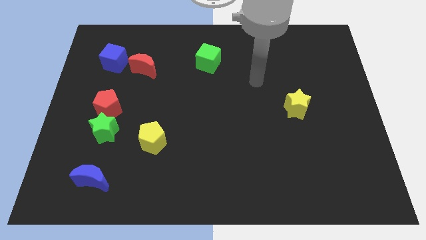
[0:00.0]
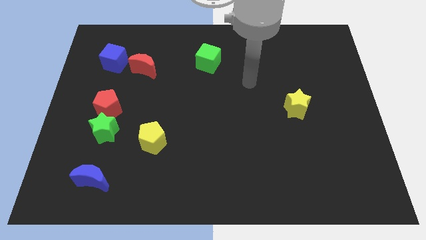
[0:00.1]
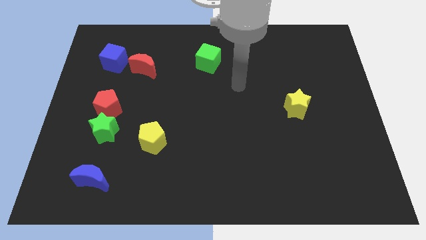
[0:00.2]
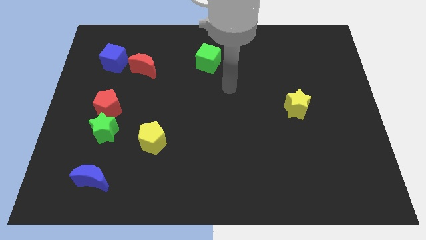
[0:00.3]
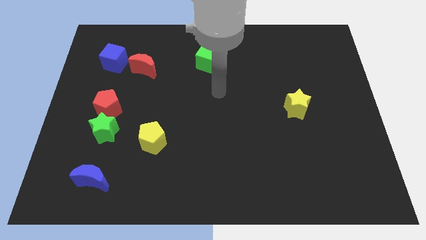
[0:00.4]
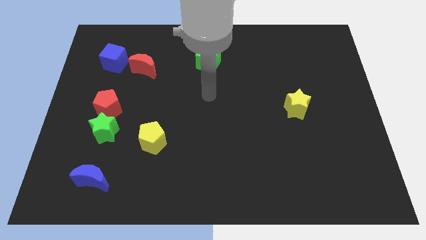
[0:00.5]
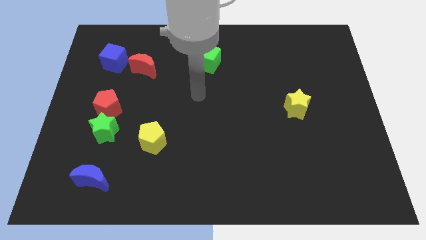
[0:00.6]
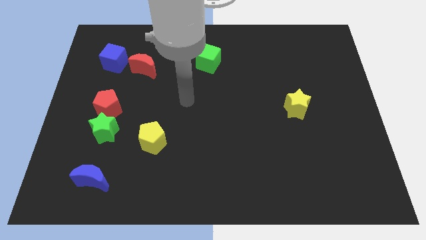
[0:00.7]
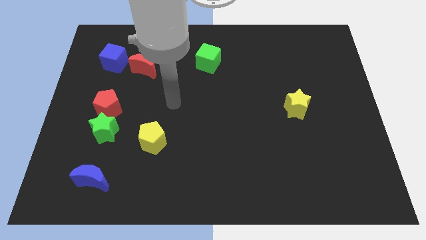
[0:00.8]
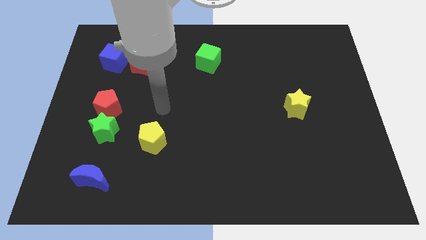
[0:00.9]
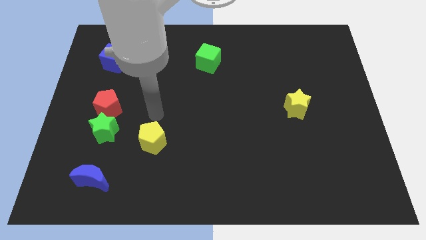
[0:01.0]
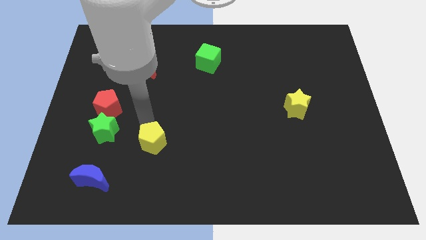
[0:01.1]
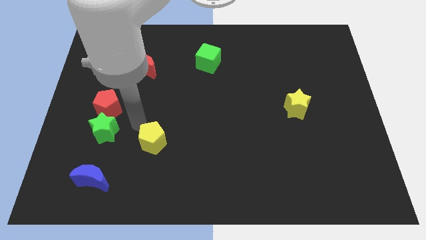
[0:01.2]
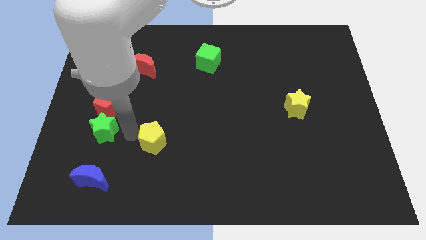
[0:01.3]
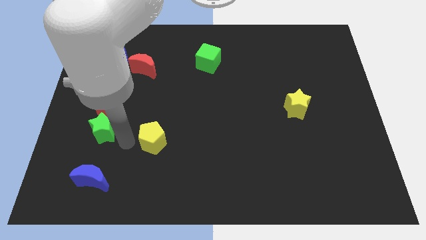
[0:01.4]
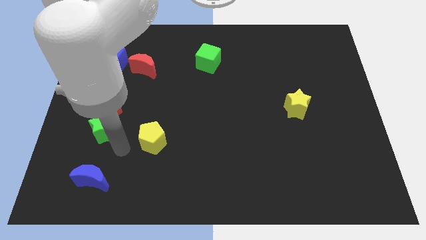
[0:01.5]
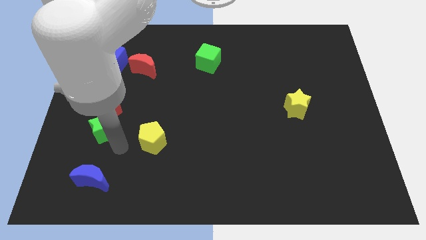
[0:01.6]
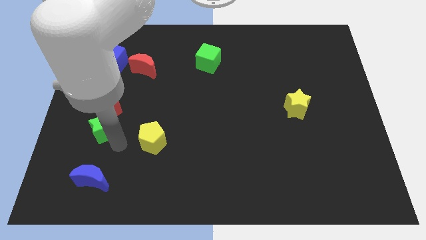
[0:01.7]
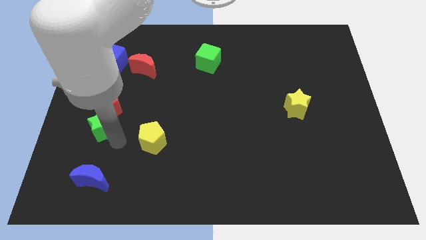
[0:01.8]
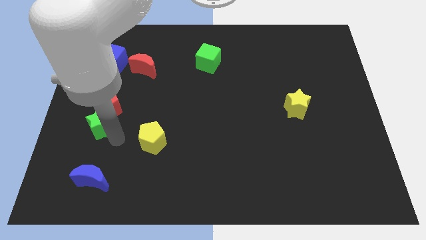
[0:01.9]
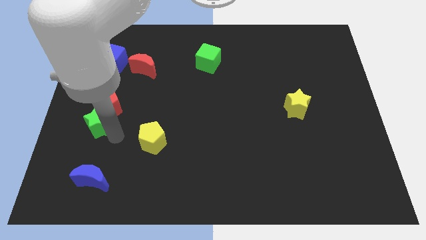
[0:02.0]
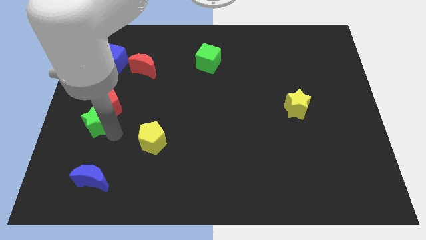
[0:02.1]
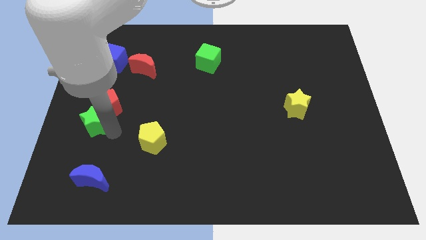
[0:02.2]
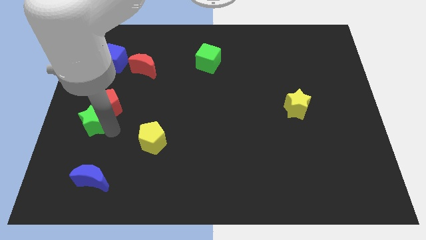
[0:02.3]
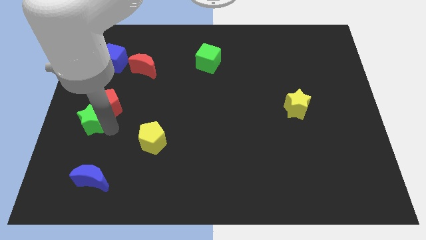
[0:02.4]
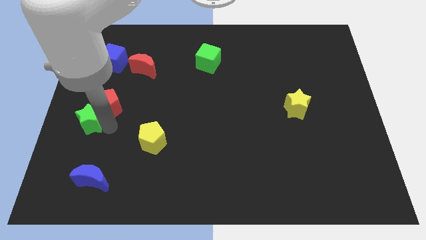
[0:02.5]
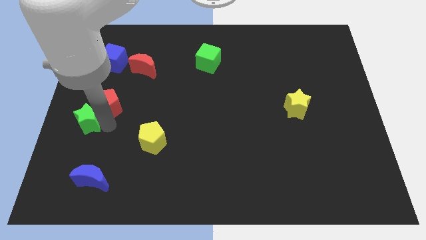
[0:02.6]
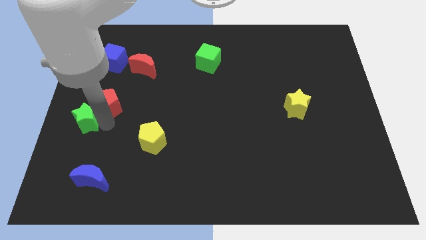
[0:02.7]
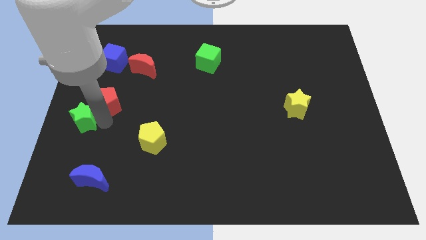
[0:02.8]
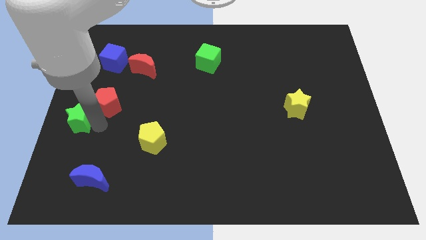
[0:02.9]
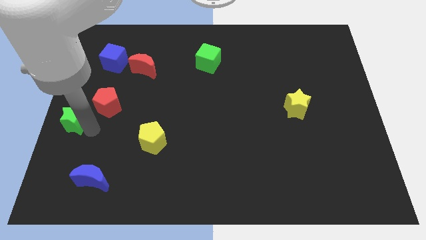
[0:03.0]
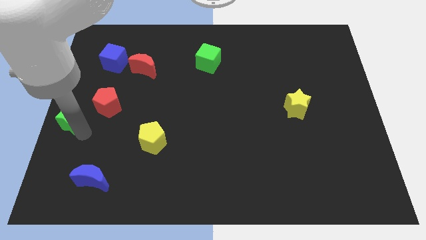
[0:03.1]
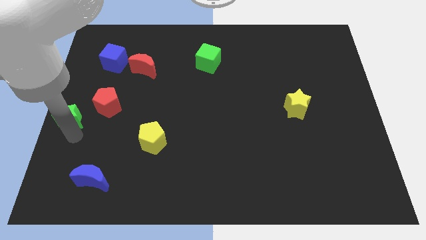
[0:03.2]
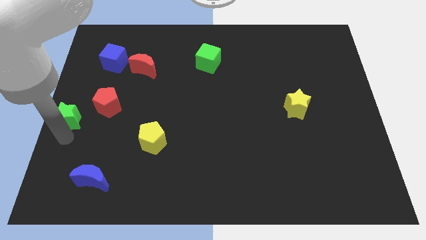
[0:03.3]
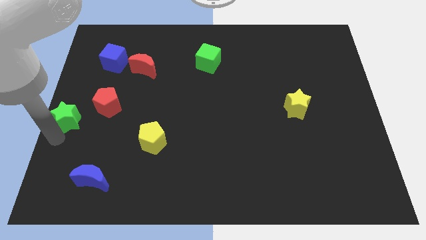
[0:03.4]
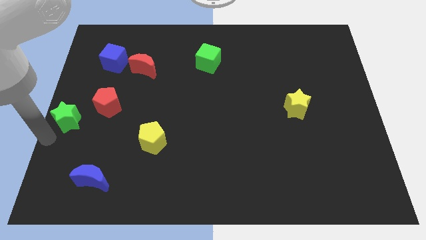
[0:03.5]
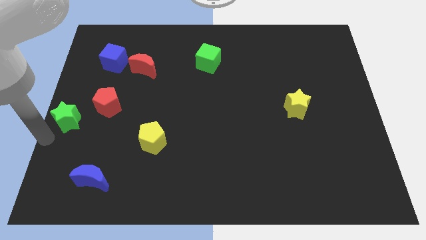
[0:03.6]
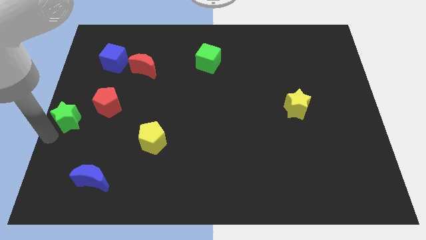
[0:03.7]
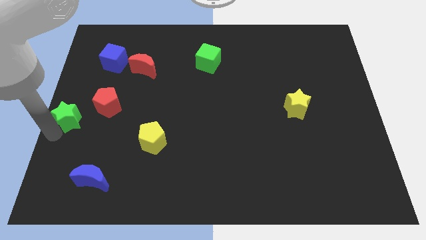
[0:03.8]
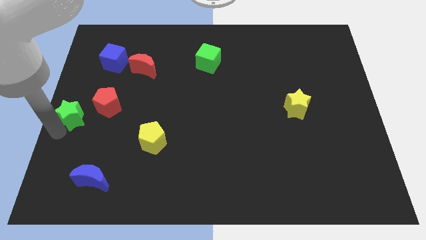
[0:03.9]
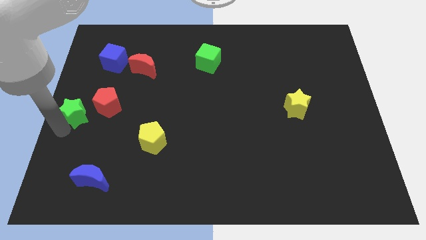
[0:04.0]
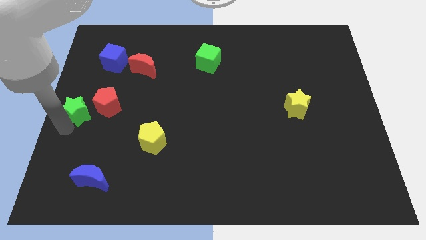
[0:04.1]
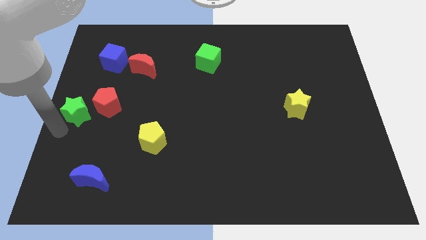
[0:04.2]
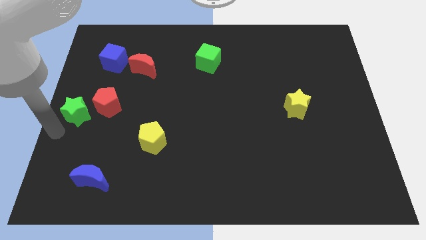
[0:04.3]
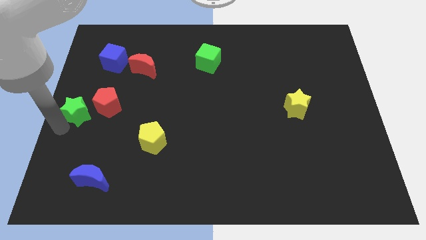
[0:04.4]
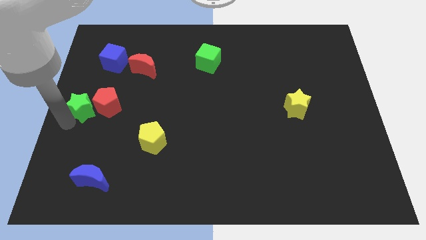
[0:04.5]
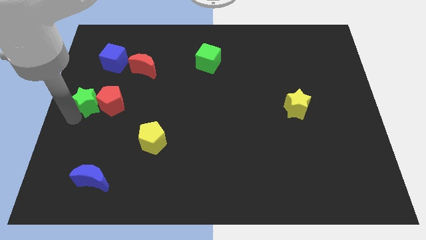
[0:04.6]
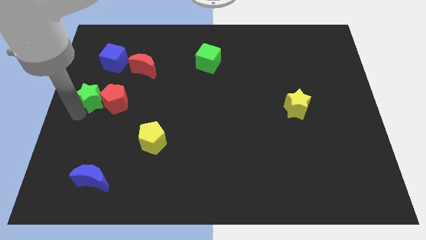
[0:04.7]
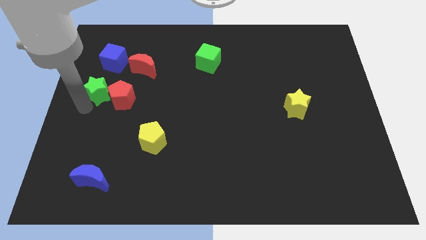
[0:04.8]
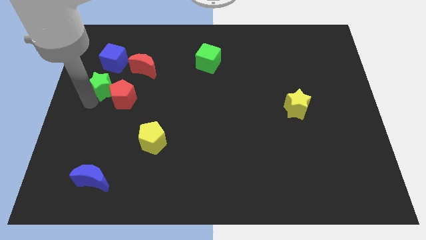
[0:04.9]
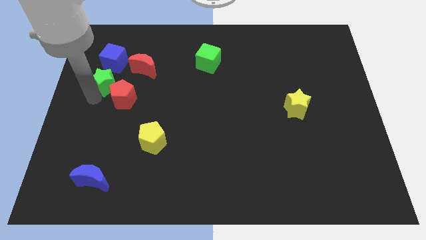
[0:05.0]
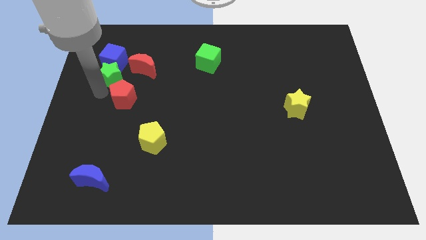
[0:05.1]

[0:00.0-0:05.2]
move the green star close to the blue cube

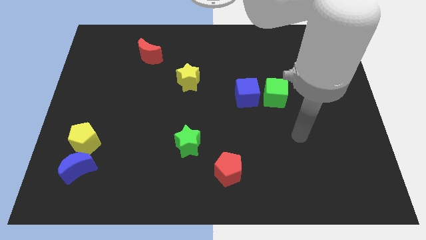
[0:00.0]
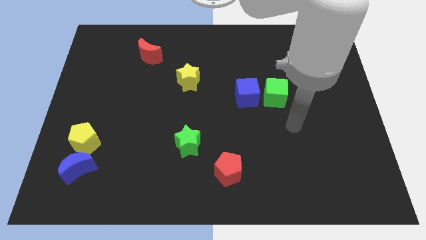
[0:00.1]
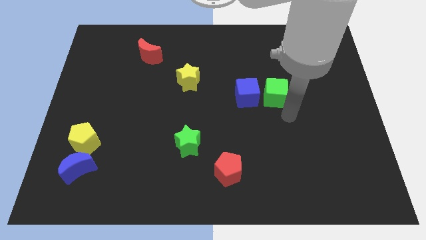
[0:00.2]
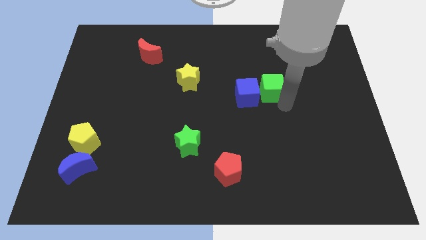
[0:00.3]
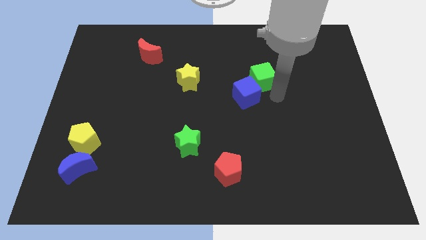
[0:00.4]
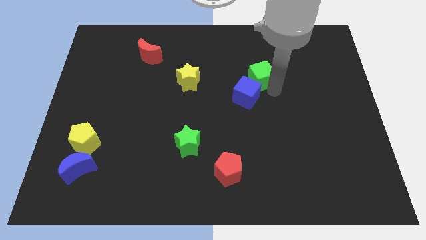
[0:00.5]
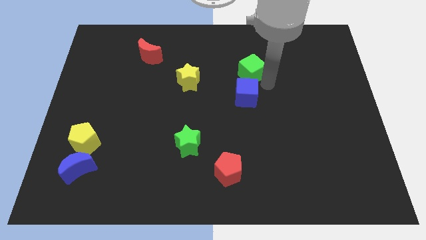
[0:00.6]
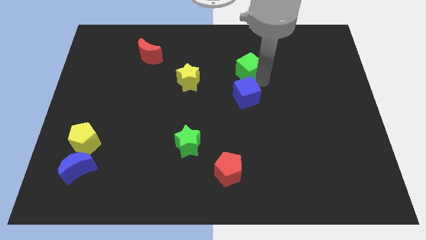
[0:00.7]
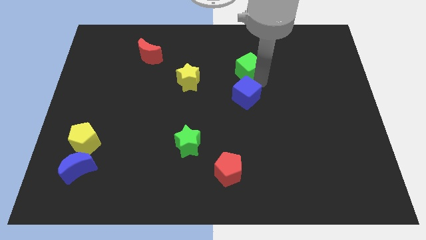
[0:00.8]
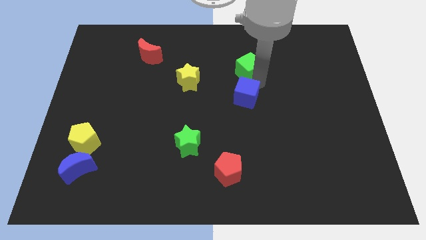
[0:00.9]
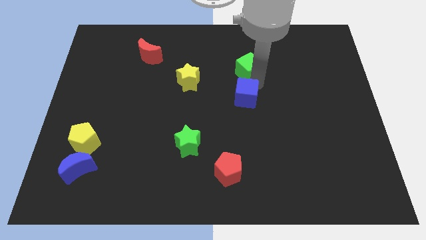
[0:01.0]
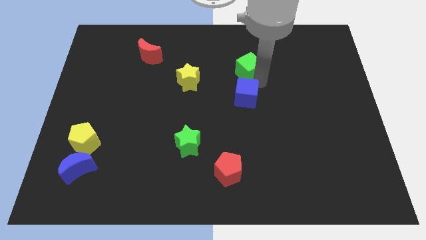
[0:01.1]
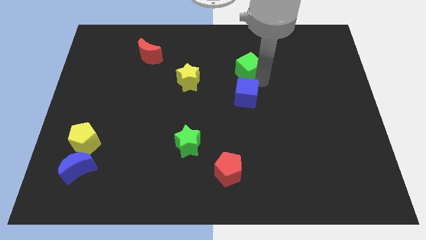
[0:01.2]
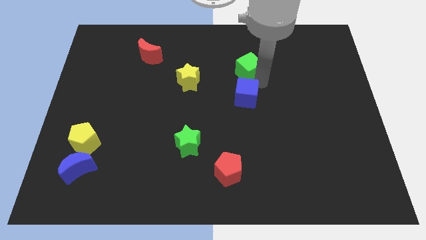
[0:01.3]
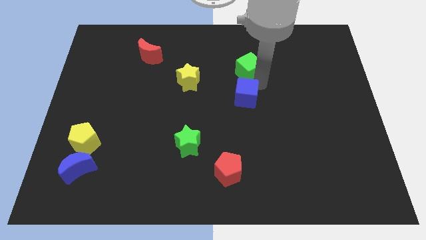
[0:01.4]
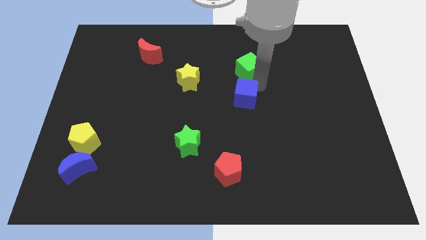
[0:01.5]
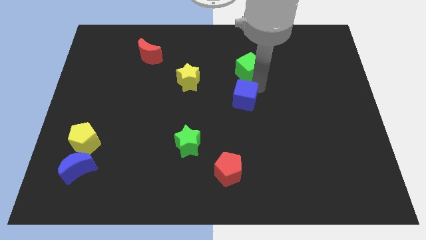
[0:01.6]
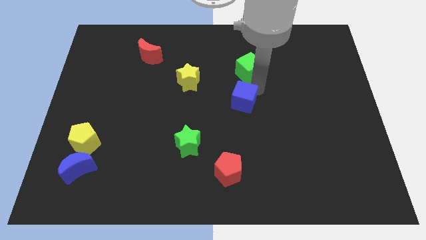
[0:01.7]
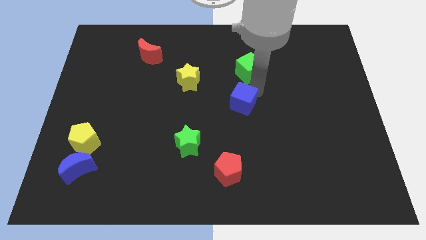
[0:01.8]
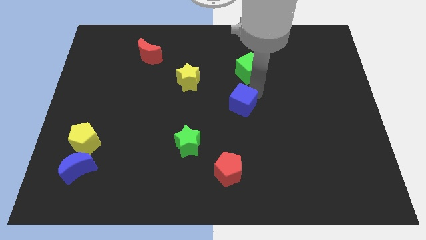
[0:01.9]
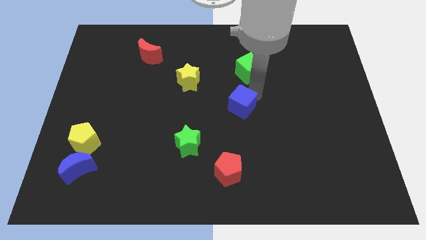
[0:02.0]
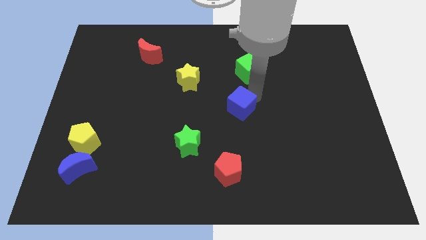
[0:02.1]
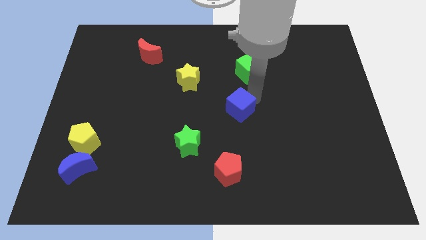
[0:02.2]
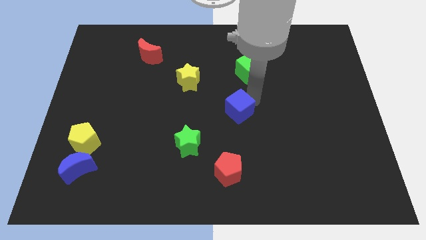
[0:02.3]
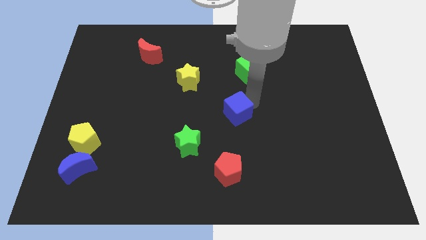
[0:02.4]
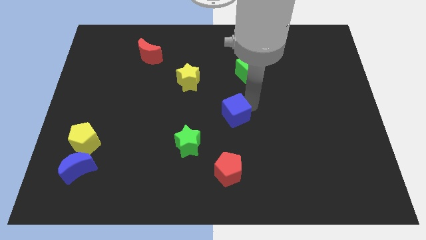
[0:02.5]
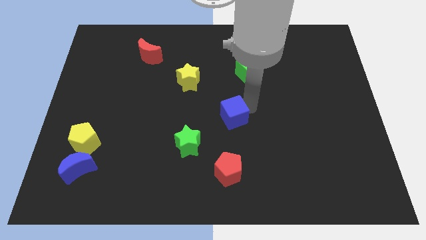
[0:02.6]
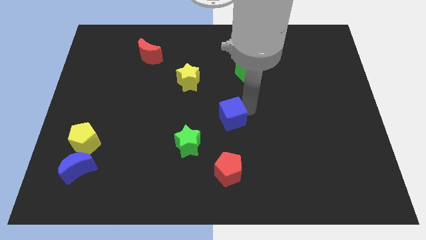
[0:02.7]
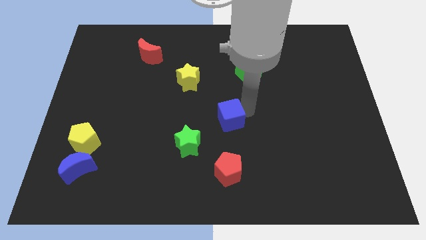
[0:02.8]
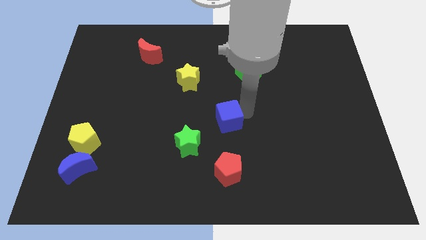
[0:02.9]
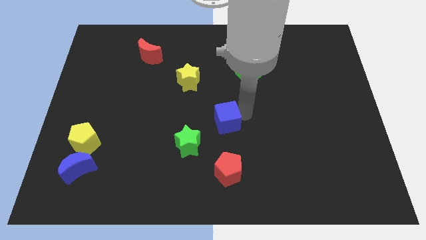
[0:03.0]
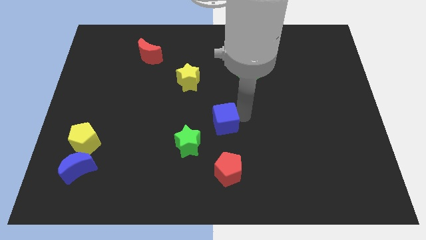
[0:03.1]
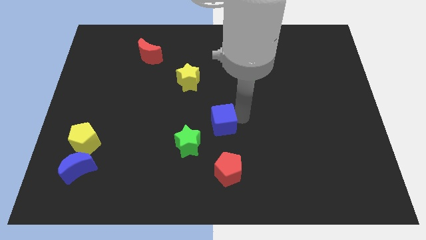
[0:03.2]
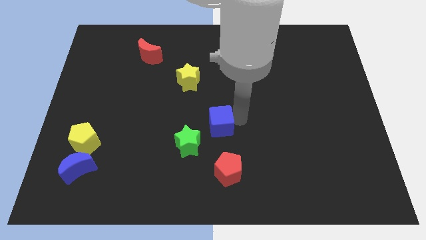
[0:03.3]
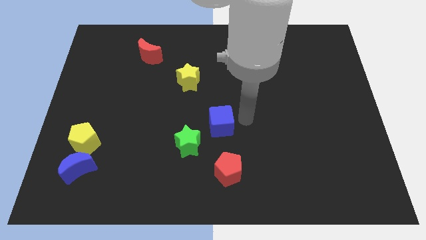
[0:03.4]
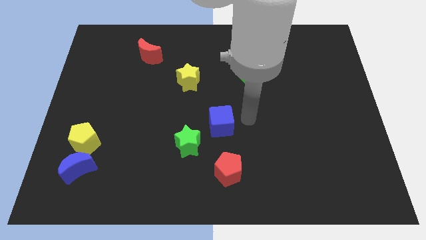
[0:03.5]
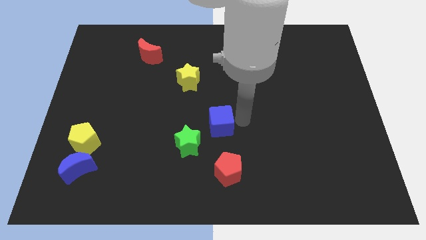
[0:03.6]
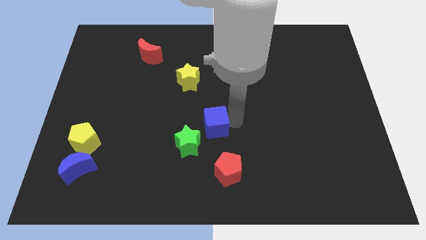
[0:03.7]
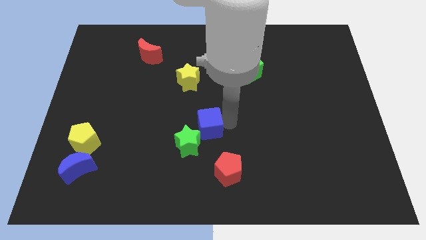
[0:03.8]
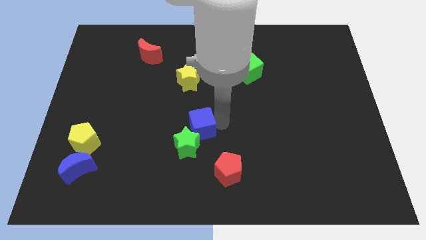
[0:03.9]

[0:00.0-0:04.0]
move the blue cube next to the green star
